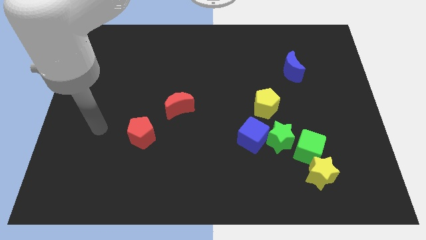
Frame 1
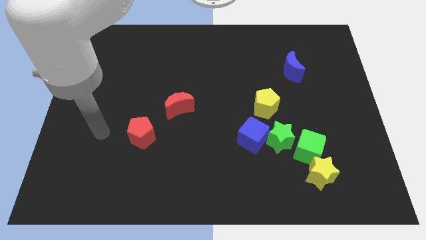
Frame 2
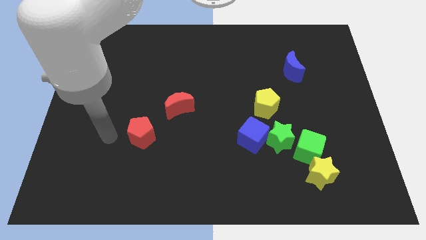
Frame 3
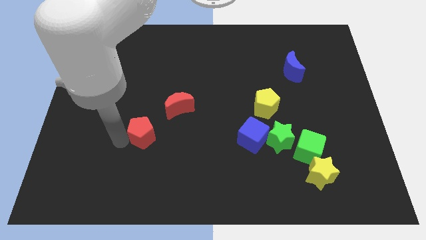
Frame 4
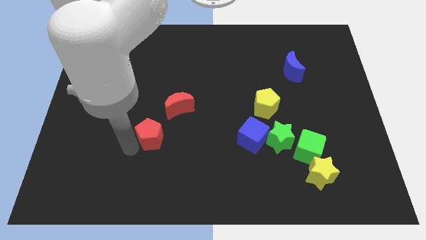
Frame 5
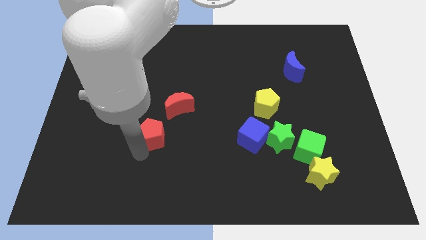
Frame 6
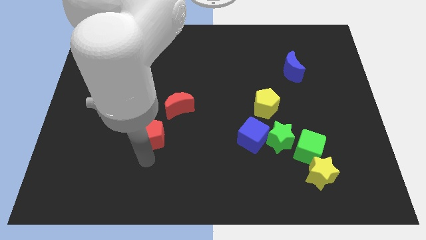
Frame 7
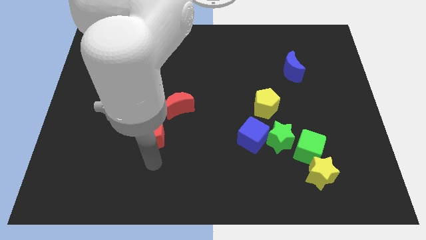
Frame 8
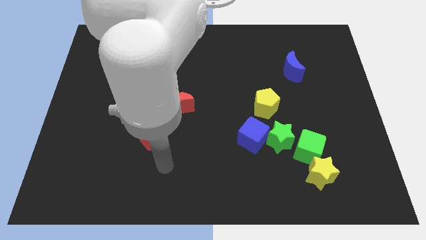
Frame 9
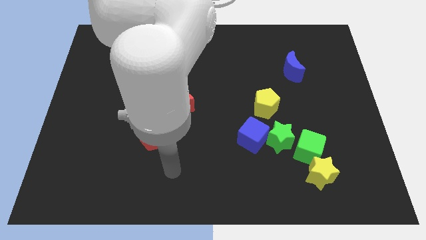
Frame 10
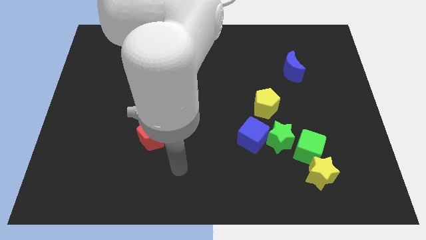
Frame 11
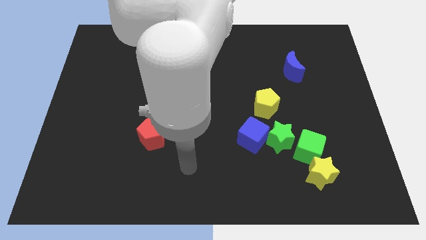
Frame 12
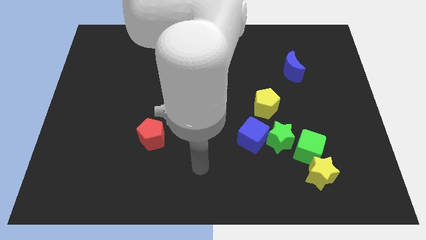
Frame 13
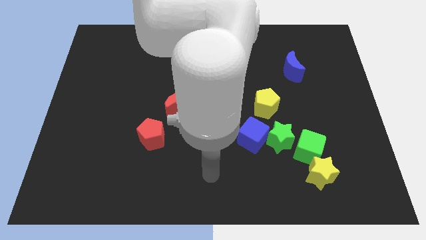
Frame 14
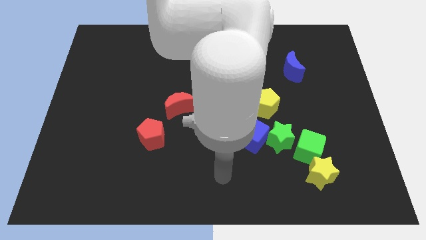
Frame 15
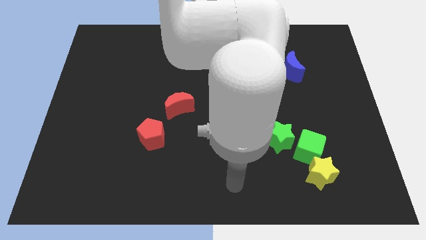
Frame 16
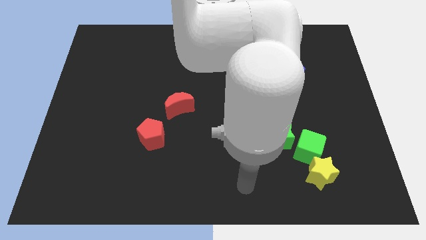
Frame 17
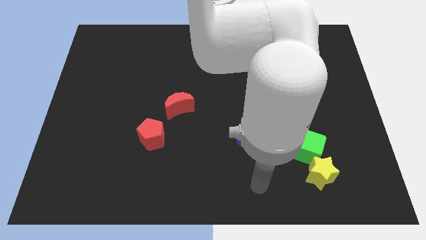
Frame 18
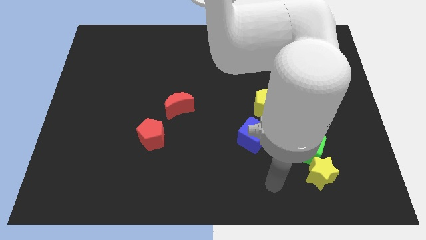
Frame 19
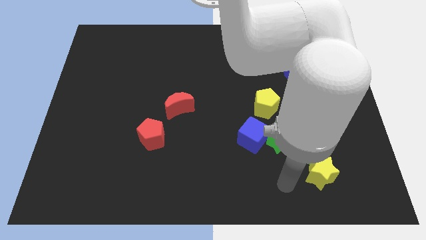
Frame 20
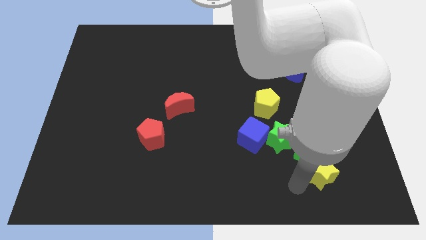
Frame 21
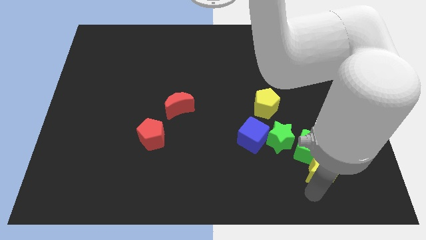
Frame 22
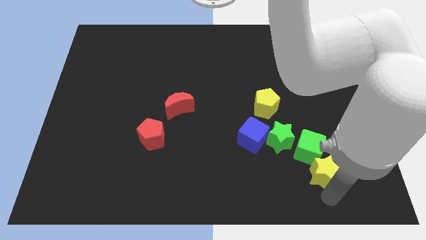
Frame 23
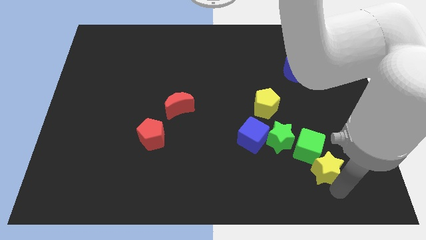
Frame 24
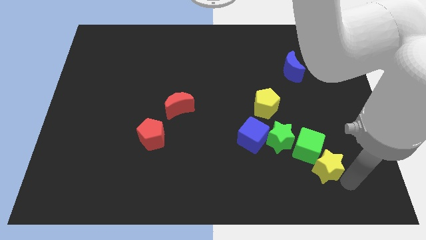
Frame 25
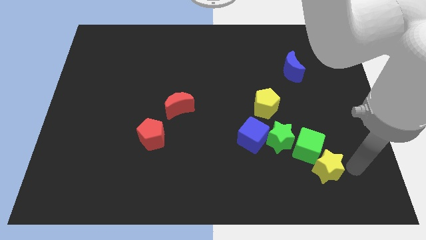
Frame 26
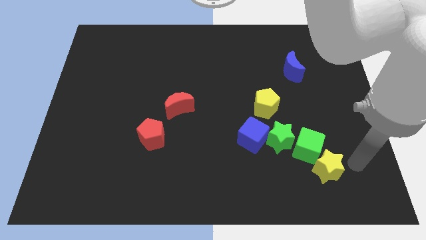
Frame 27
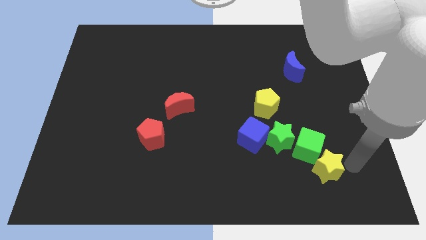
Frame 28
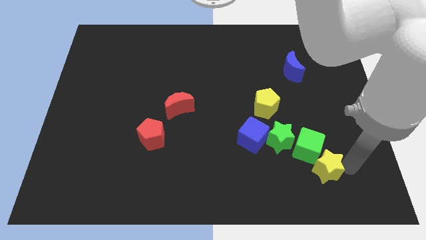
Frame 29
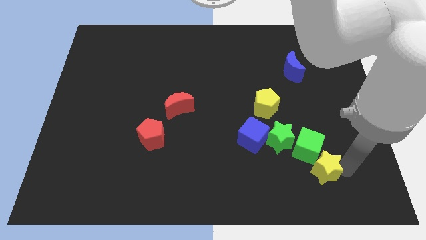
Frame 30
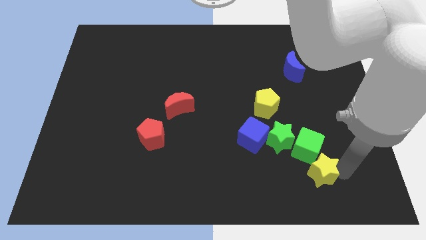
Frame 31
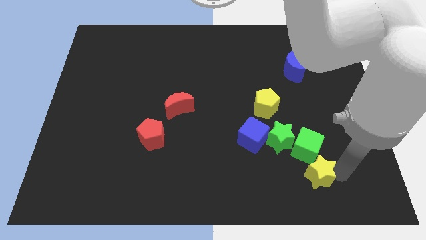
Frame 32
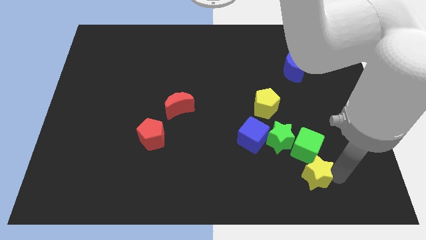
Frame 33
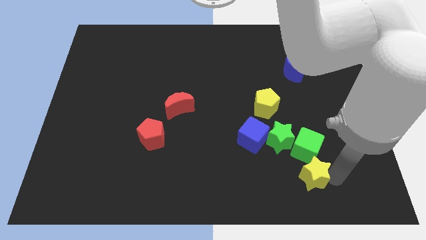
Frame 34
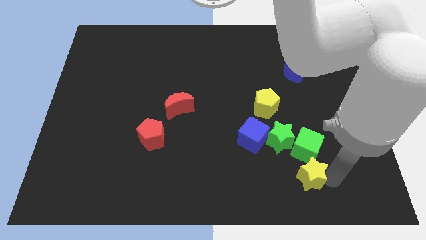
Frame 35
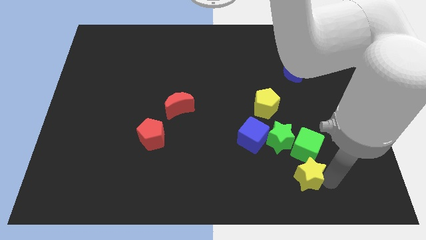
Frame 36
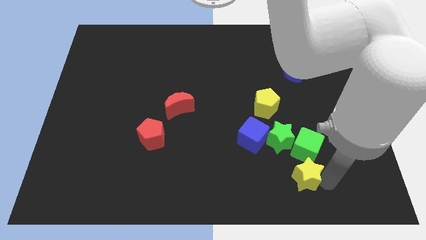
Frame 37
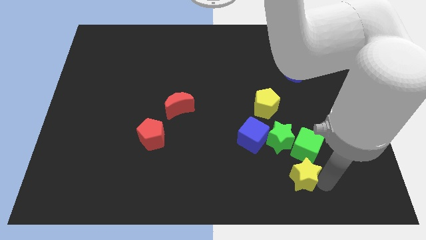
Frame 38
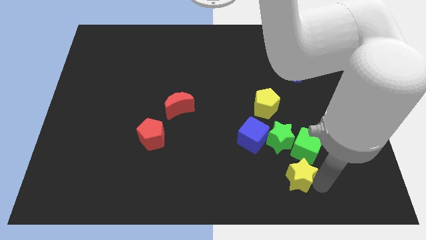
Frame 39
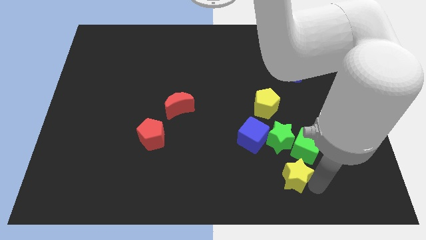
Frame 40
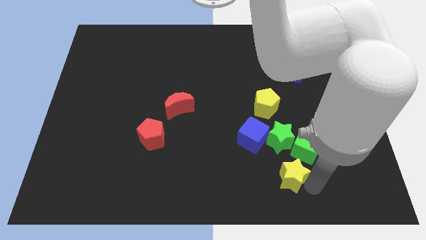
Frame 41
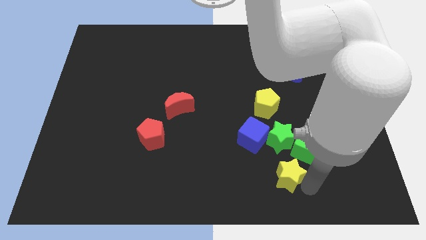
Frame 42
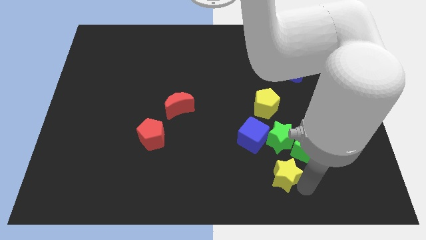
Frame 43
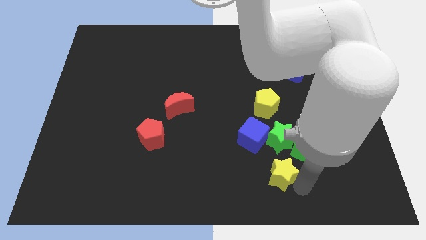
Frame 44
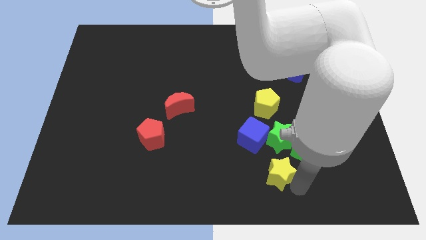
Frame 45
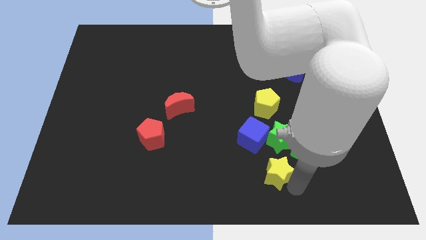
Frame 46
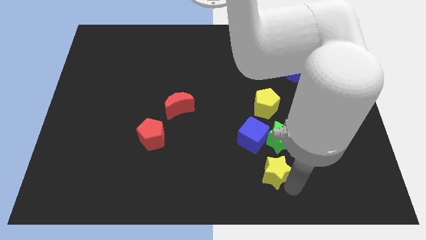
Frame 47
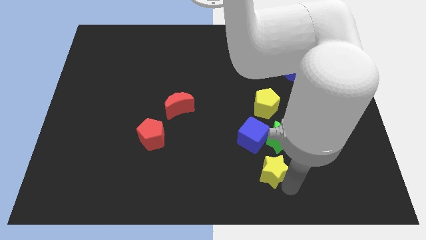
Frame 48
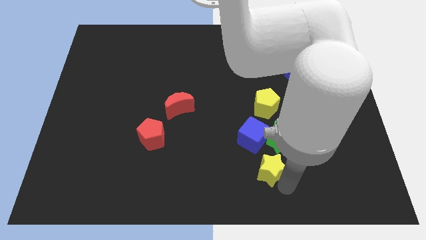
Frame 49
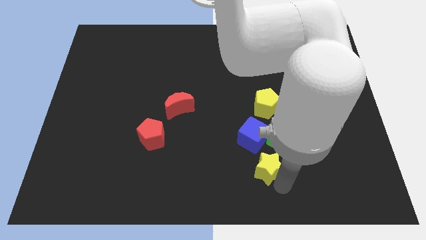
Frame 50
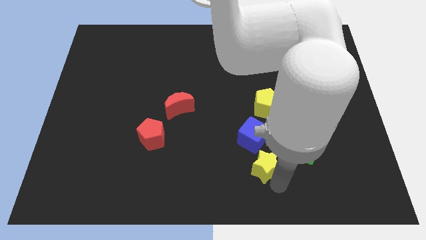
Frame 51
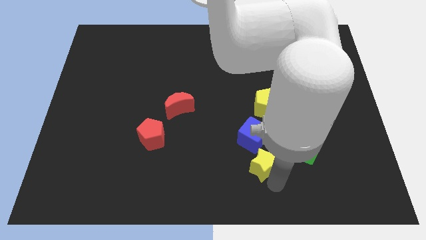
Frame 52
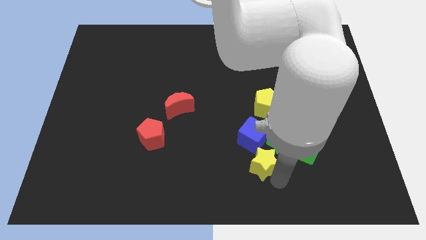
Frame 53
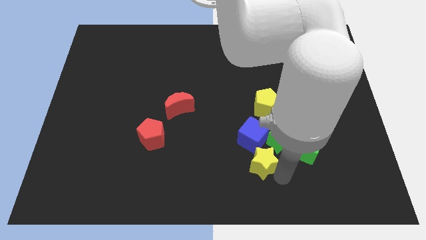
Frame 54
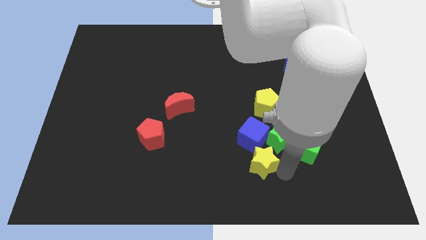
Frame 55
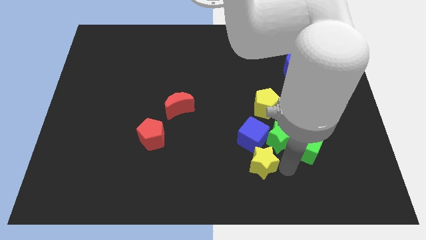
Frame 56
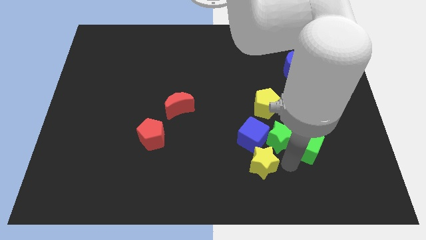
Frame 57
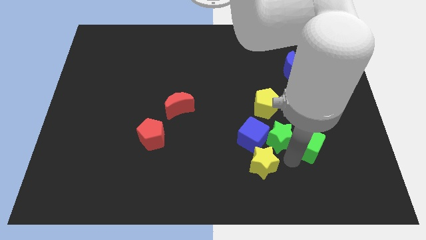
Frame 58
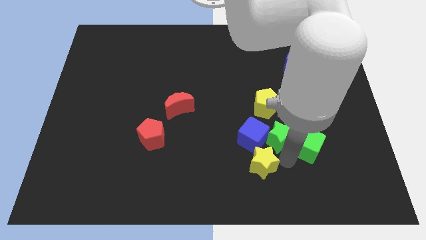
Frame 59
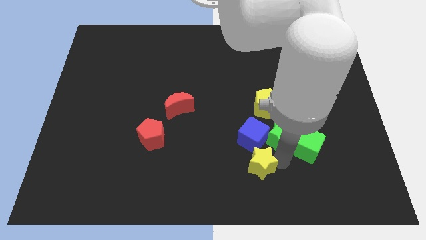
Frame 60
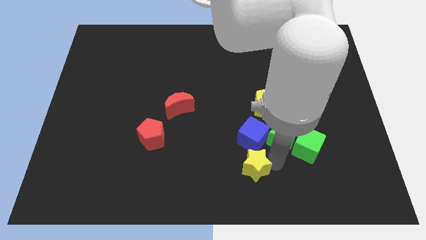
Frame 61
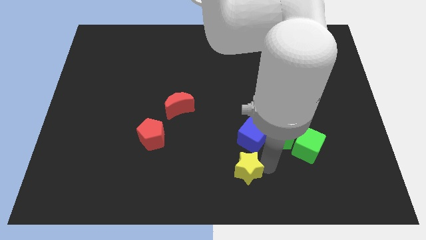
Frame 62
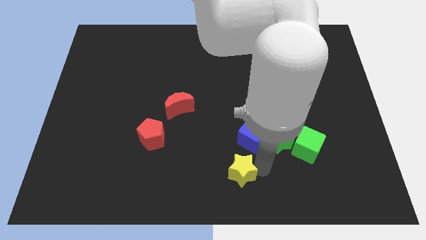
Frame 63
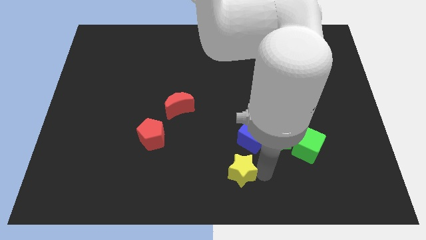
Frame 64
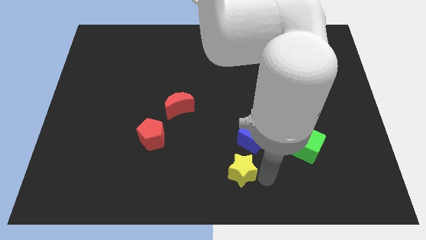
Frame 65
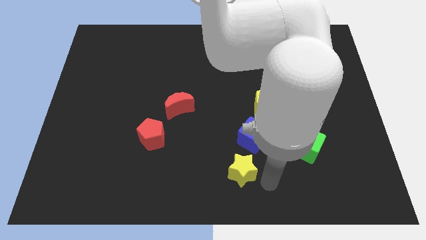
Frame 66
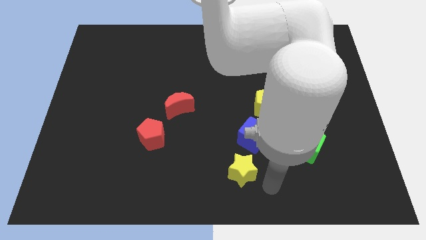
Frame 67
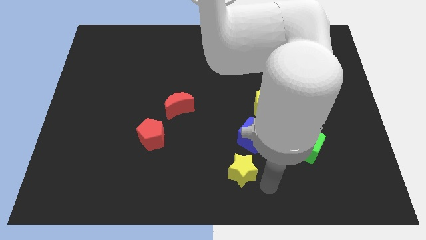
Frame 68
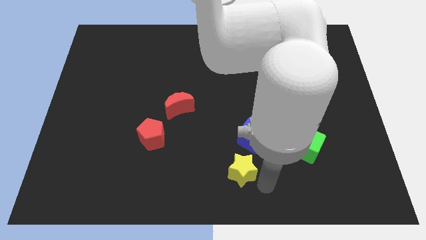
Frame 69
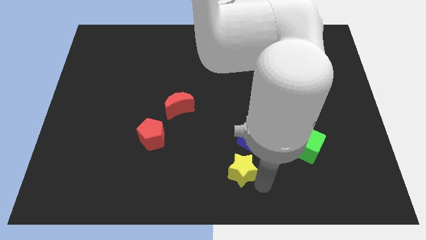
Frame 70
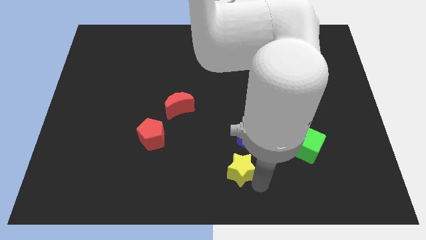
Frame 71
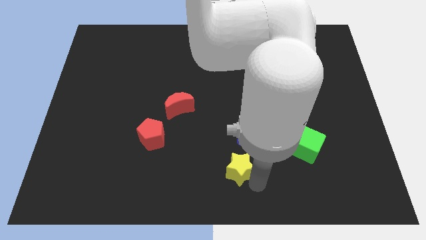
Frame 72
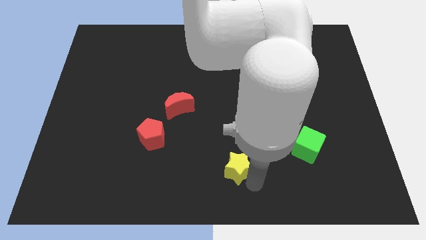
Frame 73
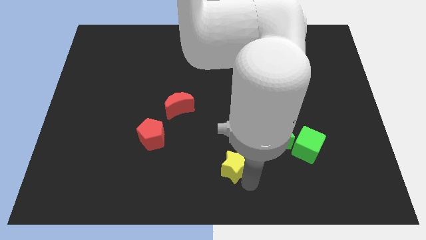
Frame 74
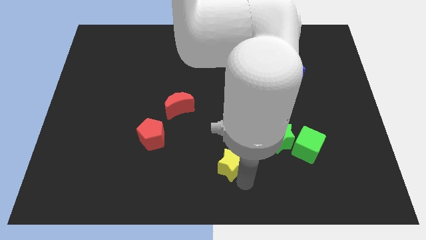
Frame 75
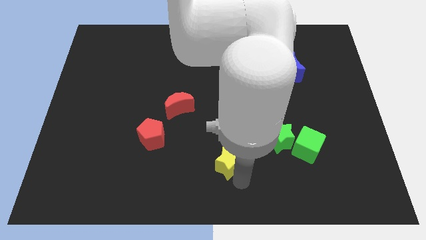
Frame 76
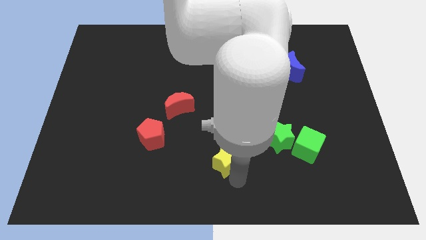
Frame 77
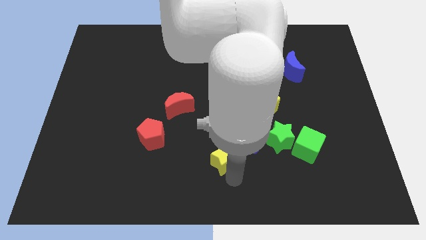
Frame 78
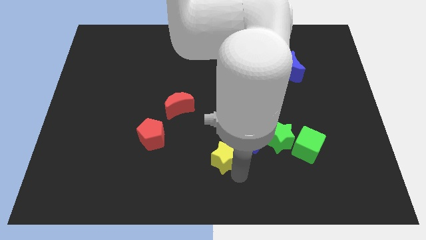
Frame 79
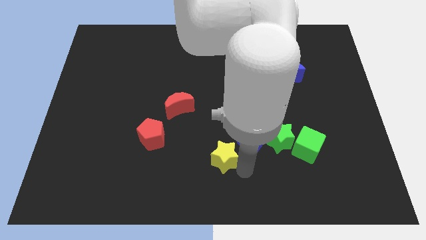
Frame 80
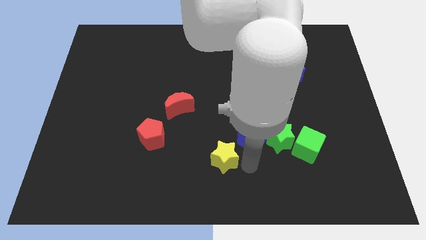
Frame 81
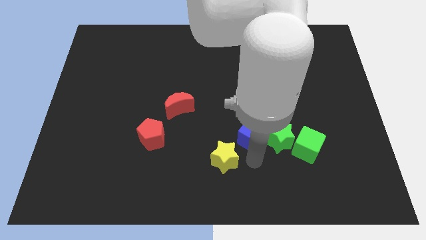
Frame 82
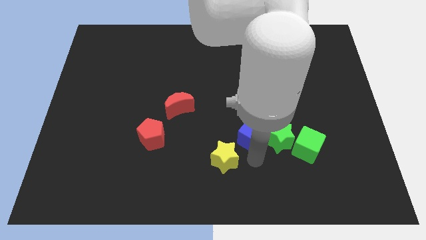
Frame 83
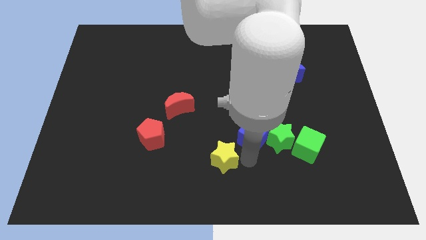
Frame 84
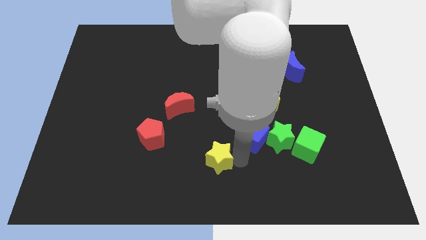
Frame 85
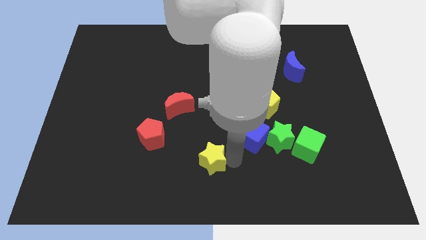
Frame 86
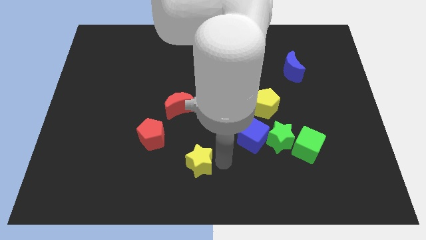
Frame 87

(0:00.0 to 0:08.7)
put the yellow star to the bottom right side of the red pentagon
